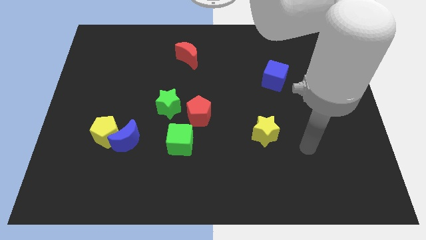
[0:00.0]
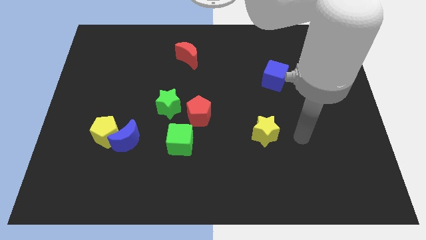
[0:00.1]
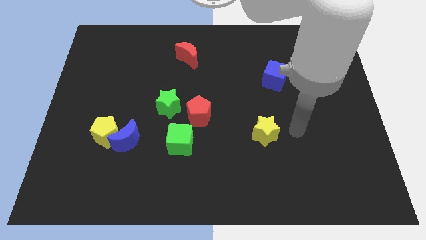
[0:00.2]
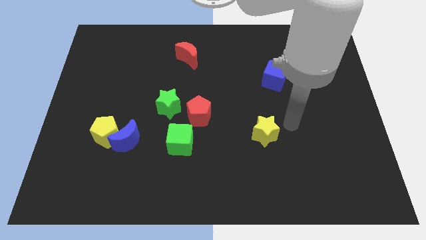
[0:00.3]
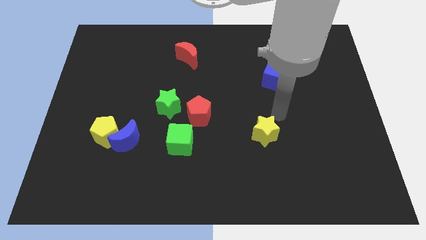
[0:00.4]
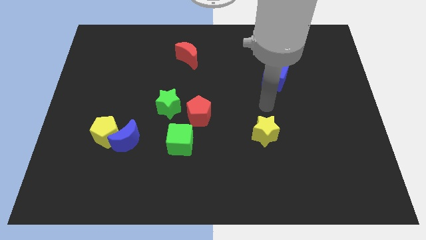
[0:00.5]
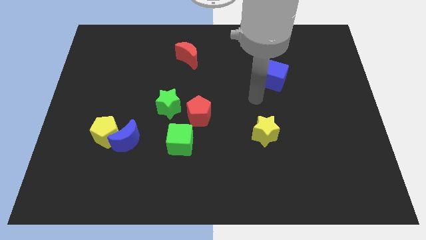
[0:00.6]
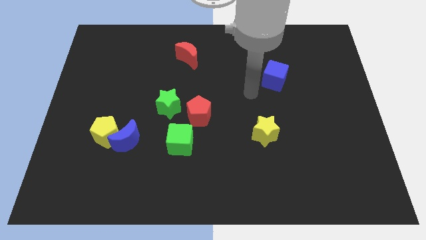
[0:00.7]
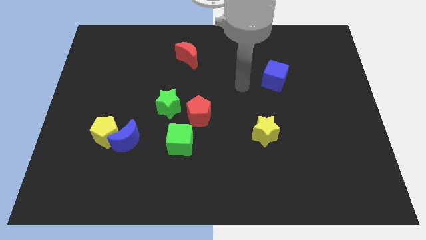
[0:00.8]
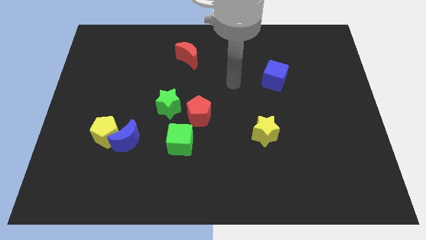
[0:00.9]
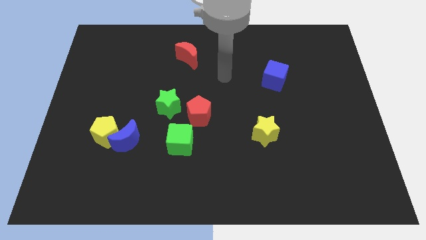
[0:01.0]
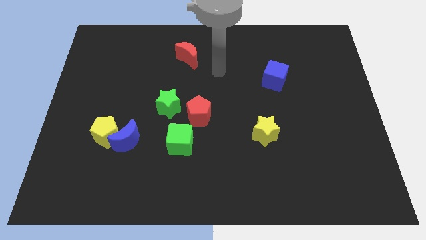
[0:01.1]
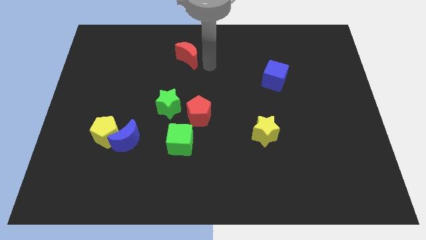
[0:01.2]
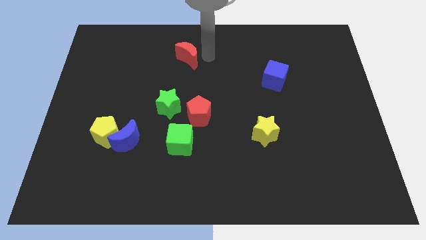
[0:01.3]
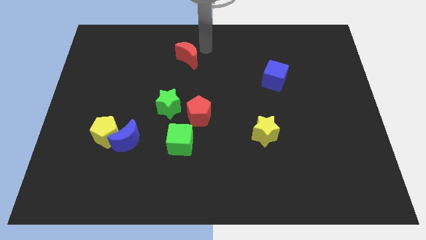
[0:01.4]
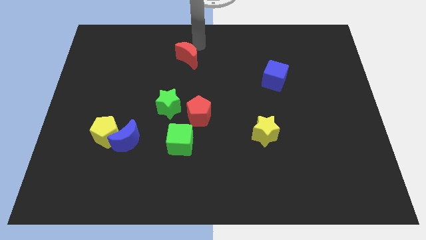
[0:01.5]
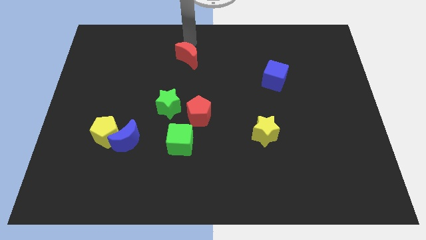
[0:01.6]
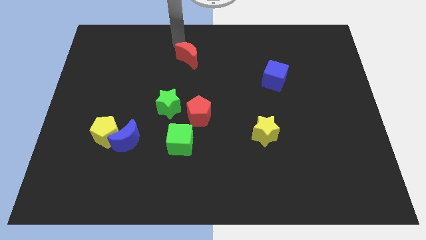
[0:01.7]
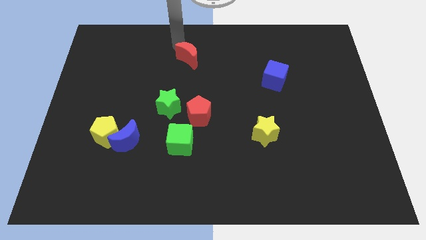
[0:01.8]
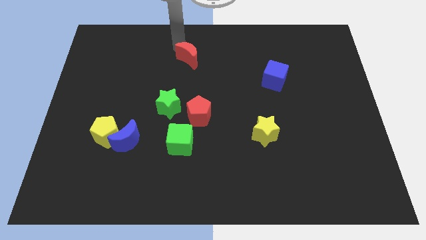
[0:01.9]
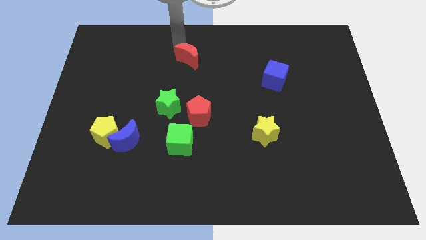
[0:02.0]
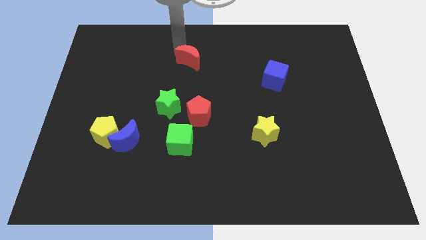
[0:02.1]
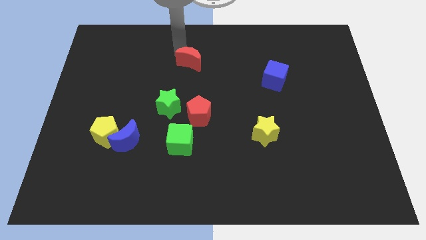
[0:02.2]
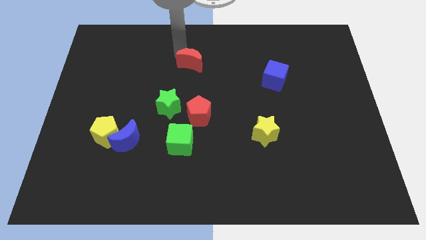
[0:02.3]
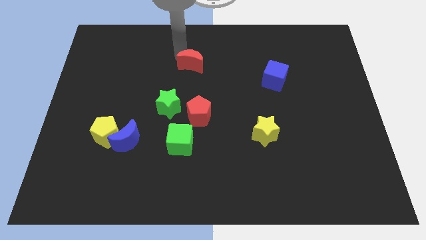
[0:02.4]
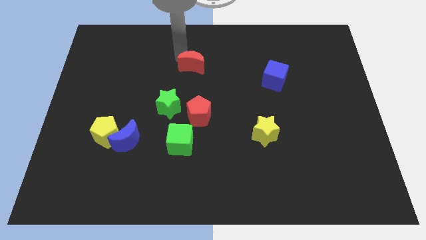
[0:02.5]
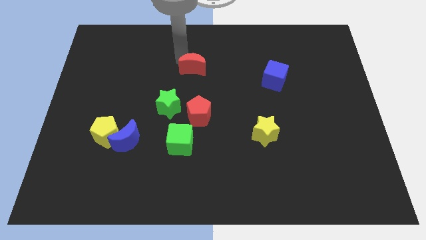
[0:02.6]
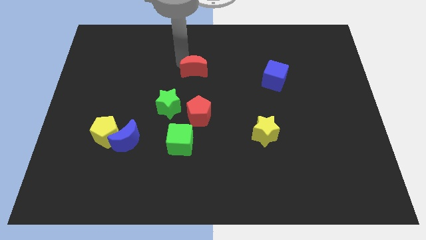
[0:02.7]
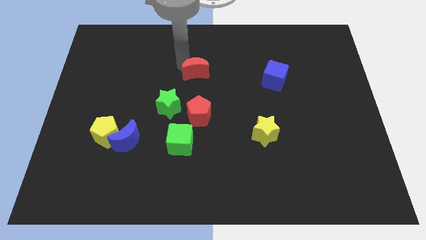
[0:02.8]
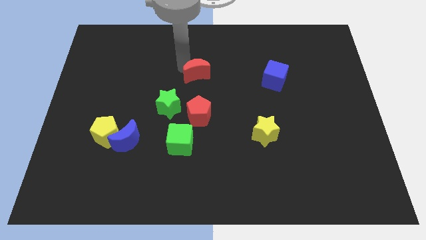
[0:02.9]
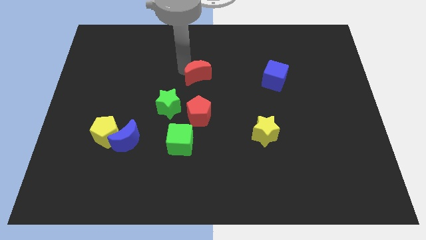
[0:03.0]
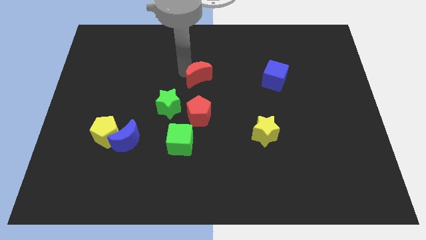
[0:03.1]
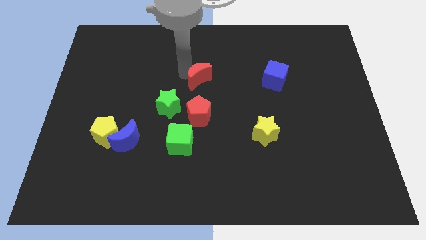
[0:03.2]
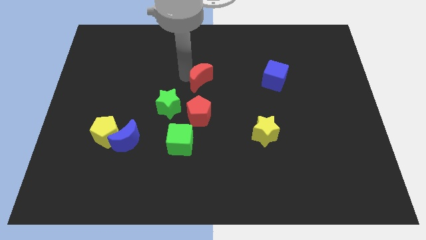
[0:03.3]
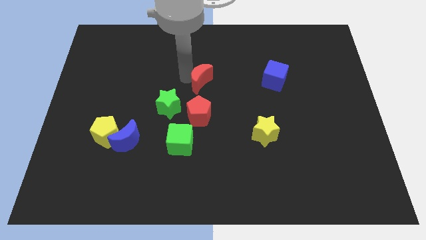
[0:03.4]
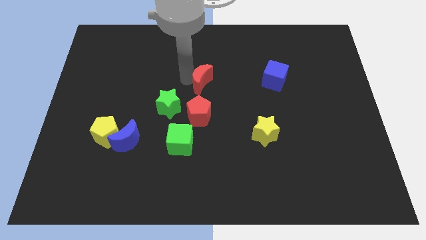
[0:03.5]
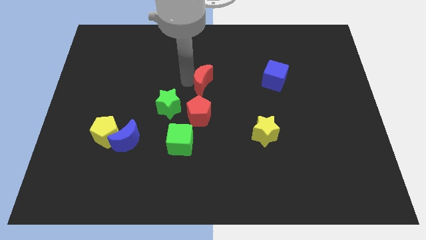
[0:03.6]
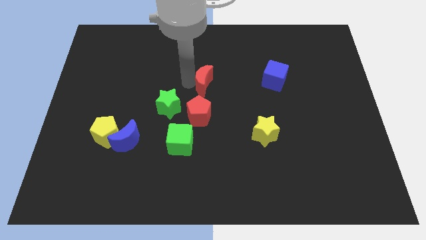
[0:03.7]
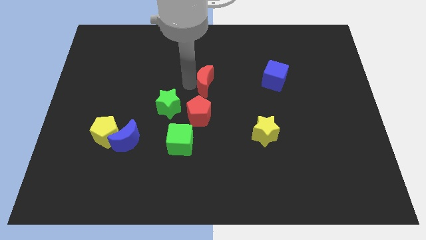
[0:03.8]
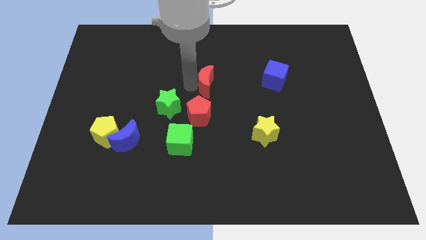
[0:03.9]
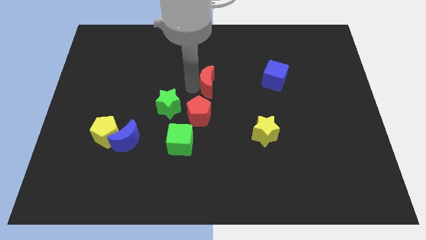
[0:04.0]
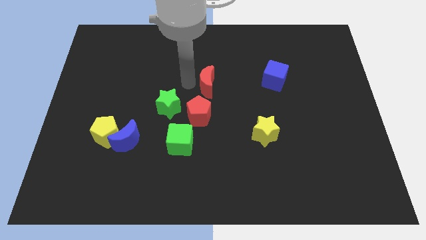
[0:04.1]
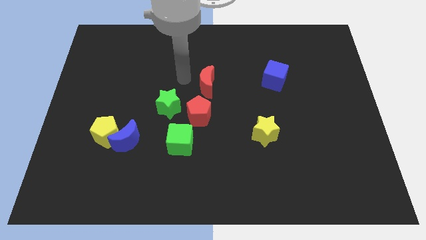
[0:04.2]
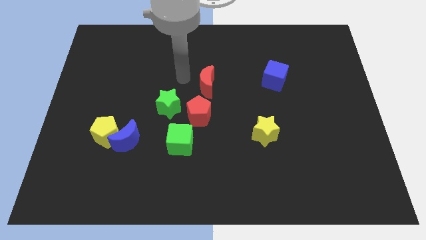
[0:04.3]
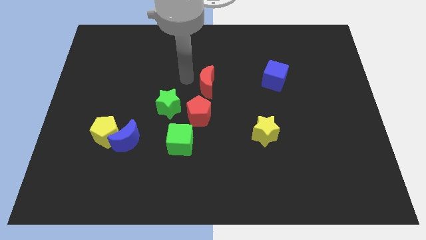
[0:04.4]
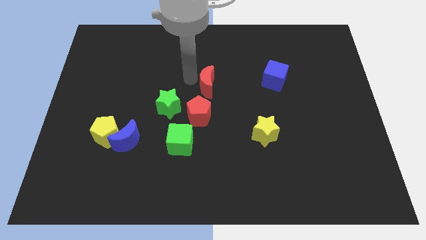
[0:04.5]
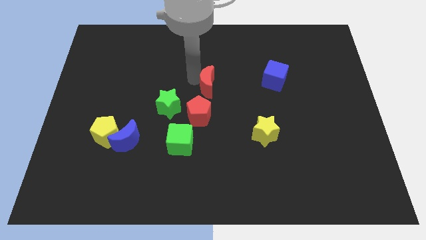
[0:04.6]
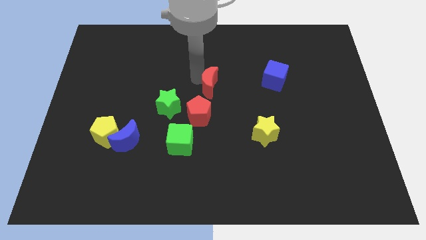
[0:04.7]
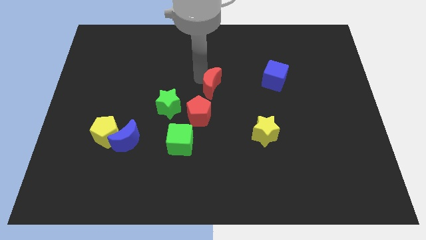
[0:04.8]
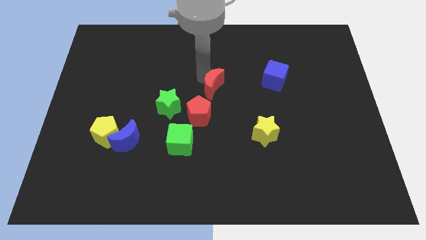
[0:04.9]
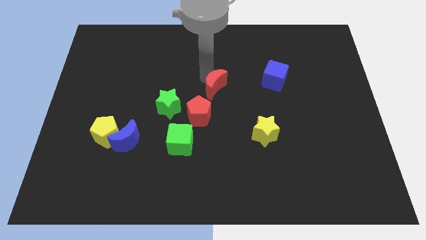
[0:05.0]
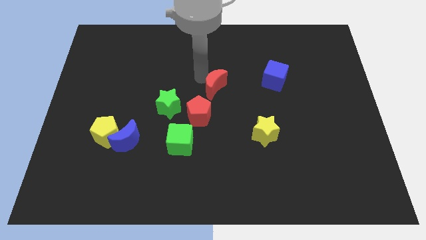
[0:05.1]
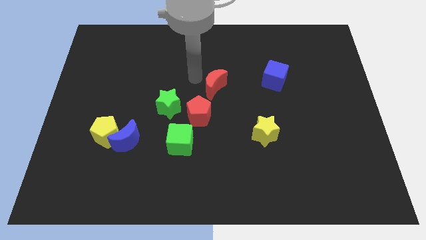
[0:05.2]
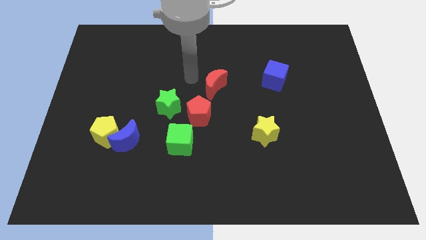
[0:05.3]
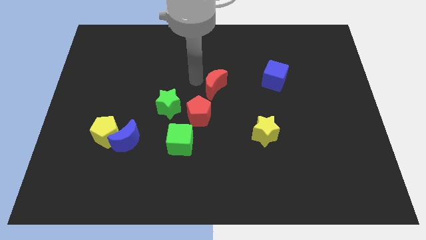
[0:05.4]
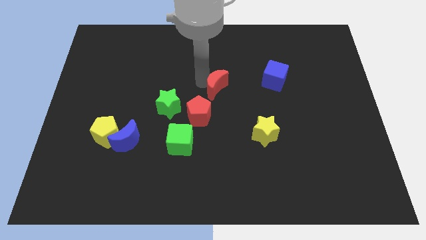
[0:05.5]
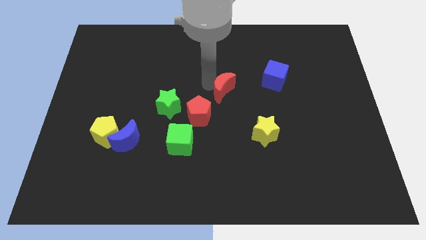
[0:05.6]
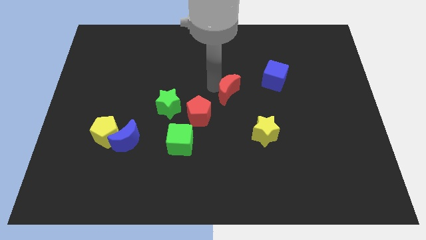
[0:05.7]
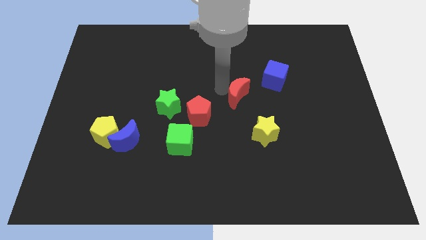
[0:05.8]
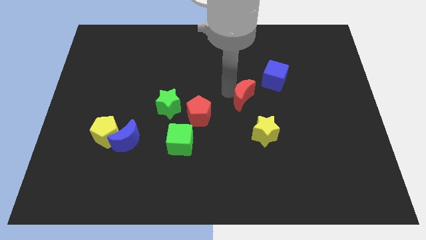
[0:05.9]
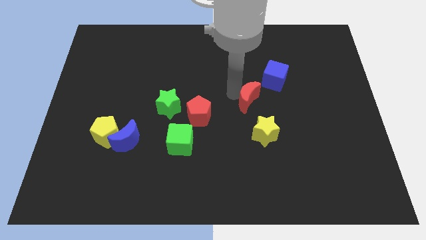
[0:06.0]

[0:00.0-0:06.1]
push the red moon diagonally down and right

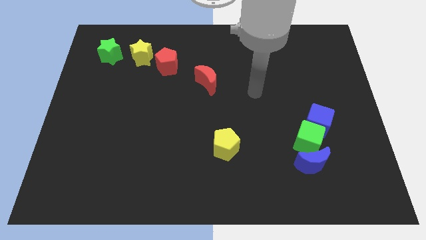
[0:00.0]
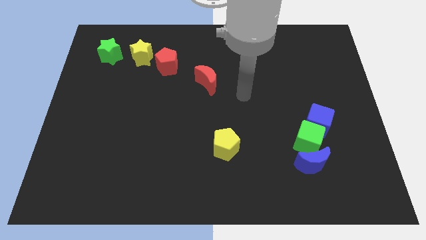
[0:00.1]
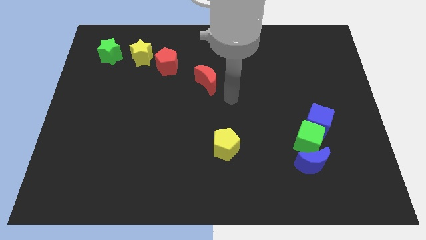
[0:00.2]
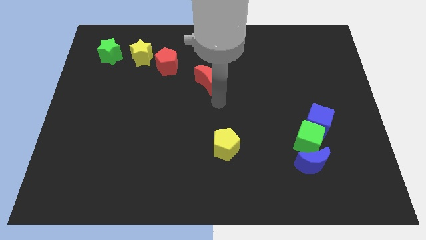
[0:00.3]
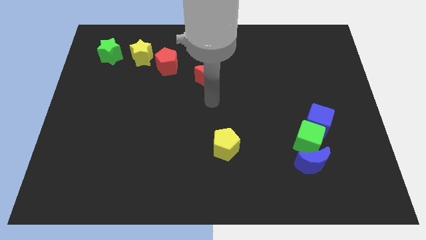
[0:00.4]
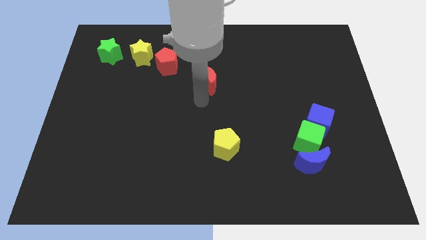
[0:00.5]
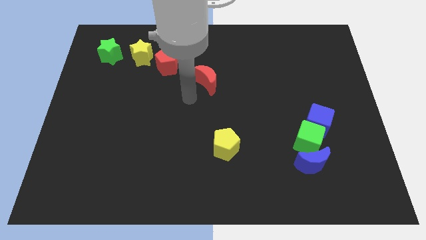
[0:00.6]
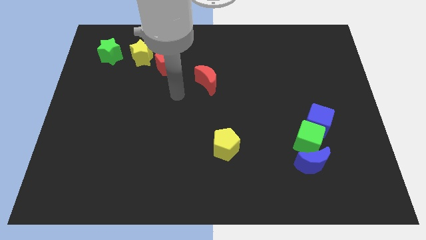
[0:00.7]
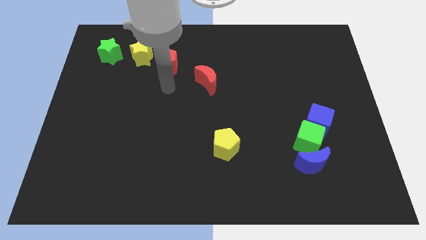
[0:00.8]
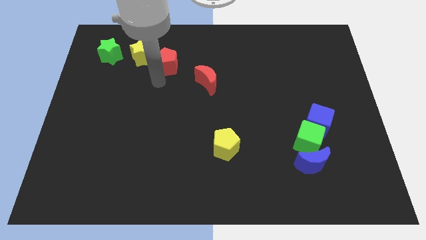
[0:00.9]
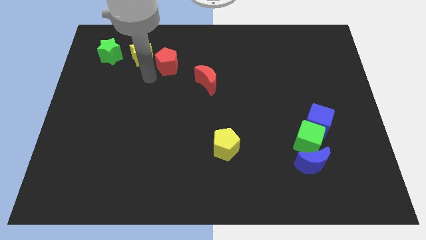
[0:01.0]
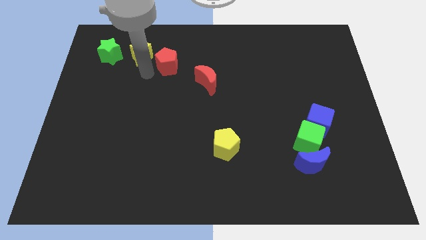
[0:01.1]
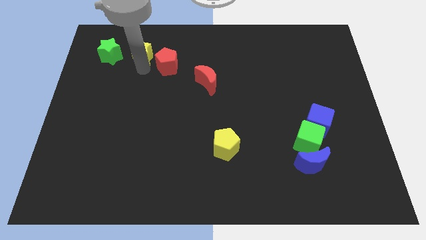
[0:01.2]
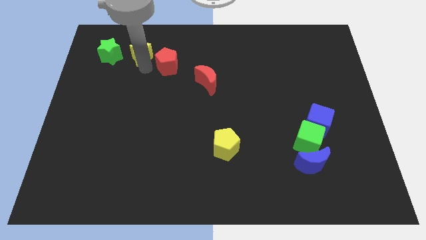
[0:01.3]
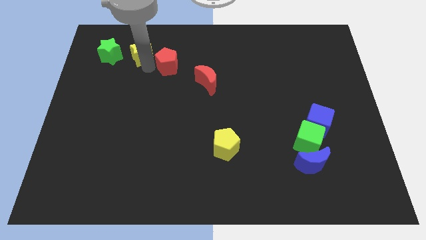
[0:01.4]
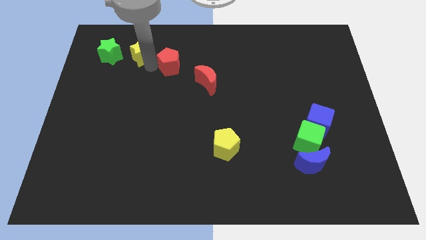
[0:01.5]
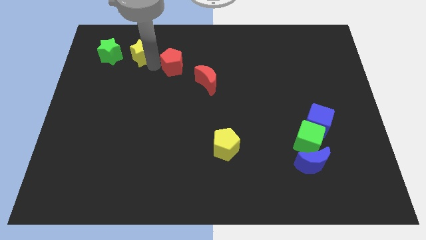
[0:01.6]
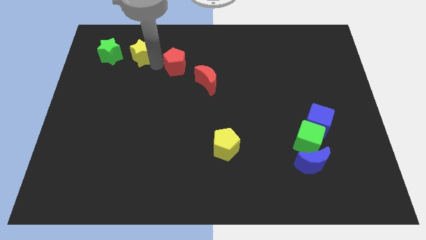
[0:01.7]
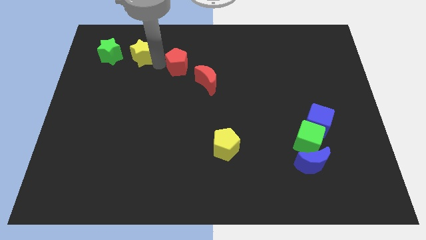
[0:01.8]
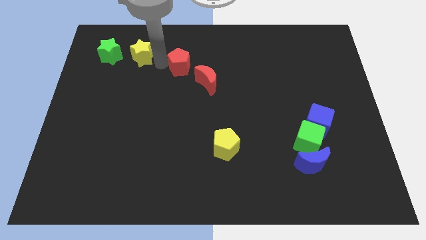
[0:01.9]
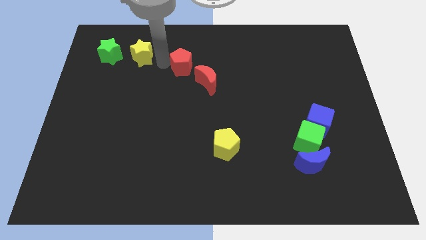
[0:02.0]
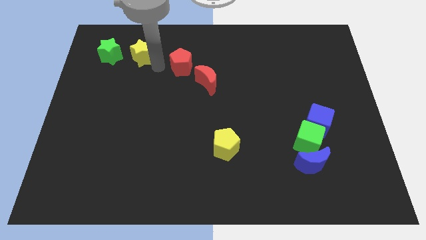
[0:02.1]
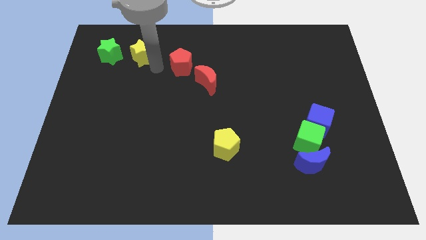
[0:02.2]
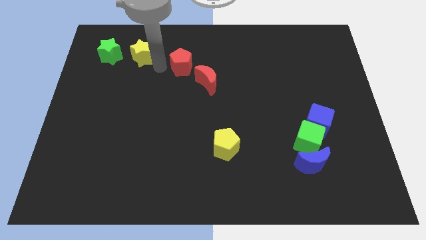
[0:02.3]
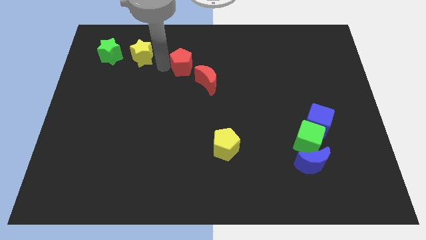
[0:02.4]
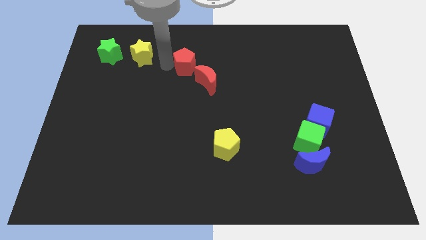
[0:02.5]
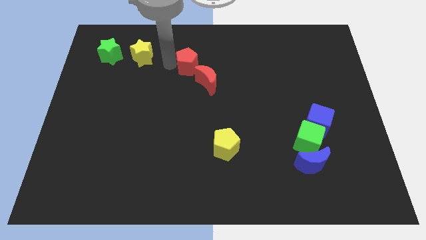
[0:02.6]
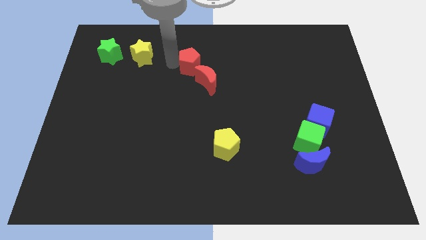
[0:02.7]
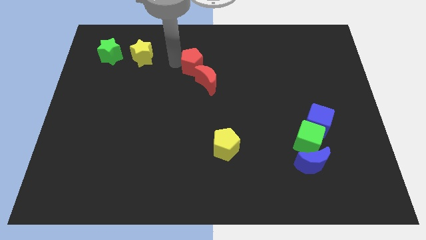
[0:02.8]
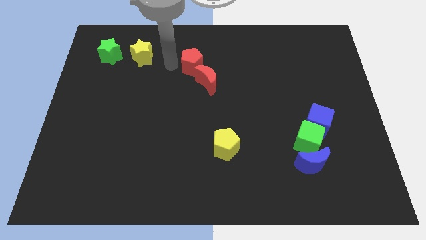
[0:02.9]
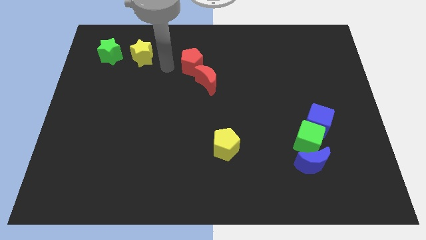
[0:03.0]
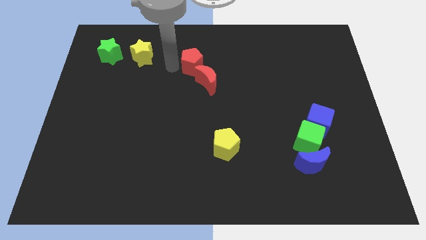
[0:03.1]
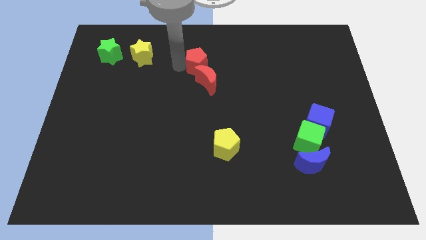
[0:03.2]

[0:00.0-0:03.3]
push the red pentagon to the right slightly
